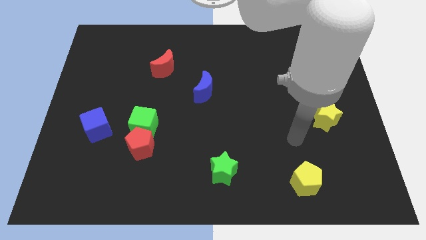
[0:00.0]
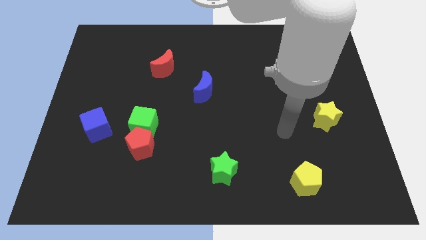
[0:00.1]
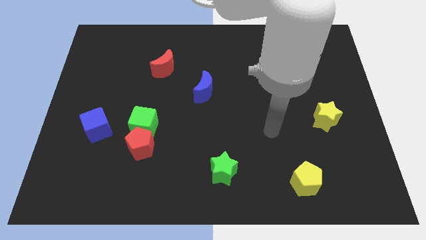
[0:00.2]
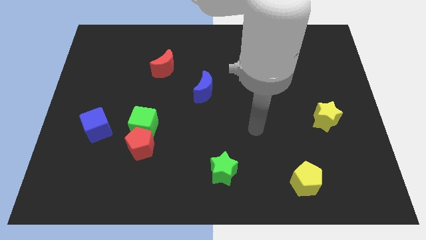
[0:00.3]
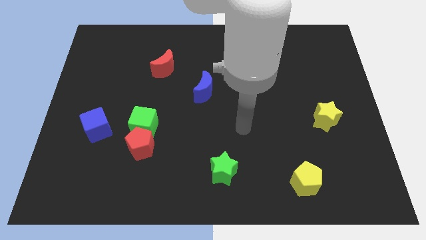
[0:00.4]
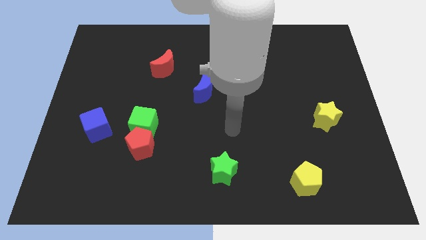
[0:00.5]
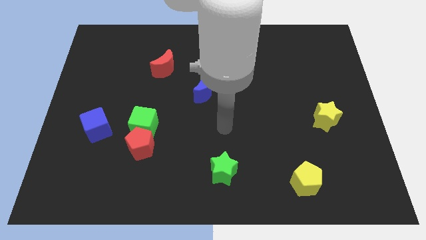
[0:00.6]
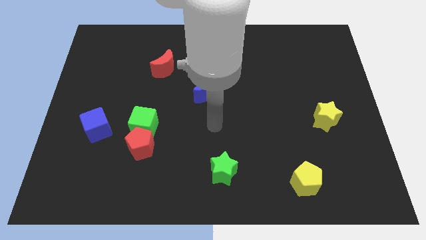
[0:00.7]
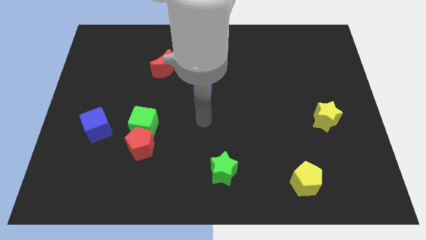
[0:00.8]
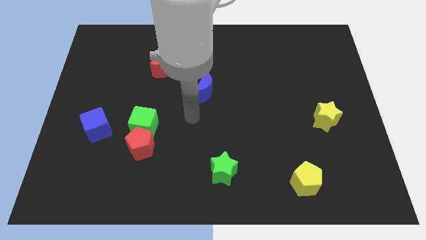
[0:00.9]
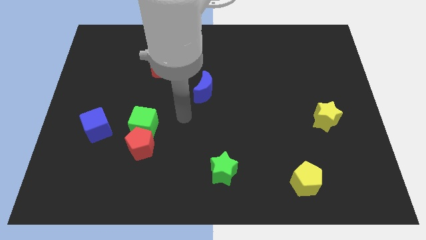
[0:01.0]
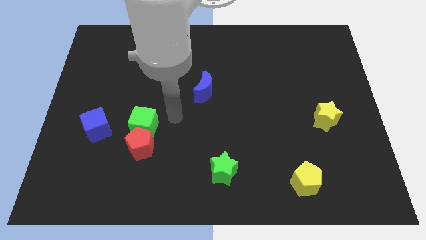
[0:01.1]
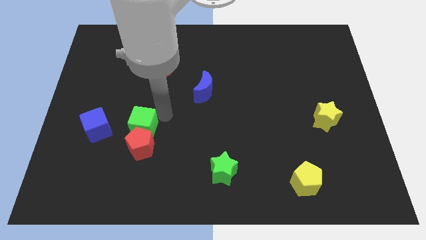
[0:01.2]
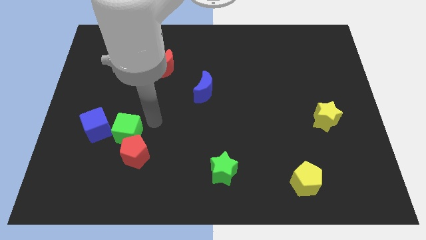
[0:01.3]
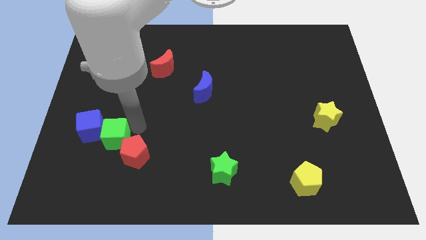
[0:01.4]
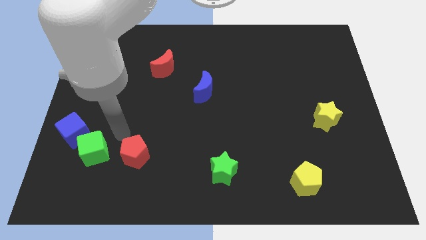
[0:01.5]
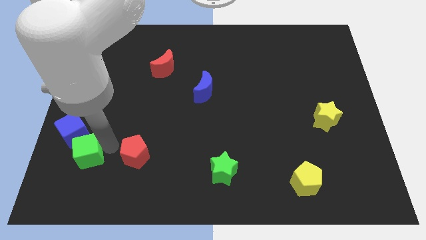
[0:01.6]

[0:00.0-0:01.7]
pull the red pentagon apart from the green cube

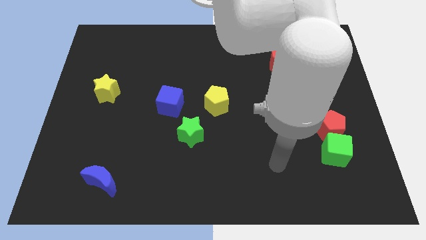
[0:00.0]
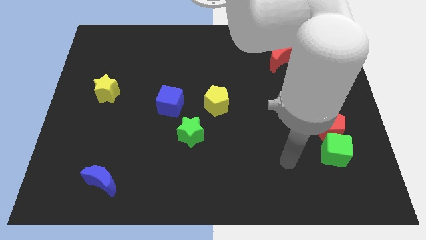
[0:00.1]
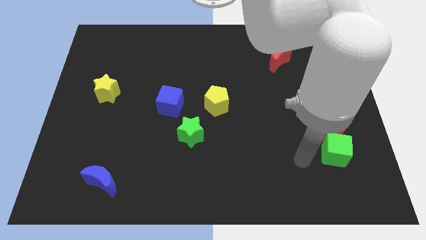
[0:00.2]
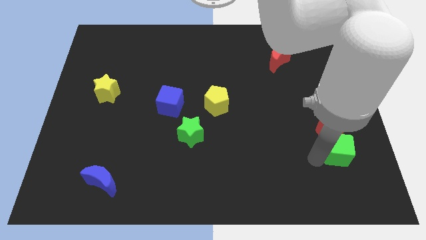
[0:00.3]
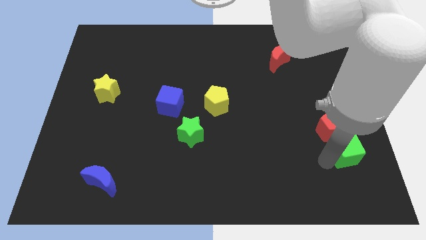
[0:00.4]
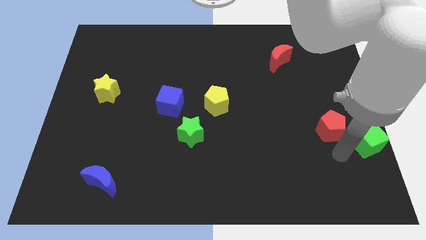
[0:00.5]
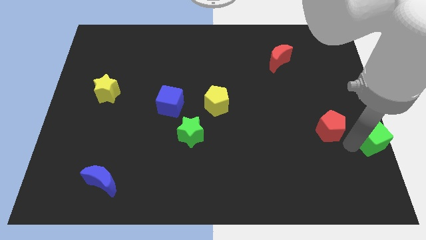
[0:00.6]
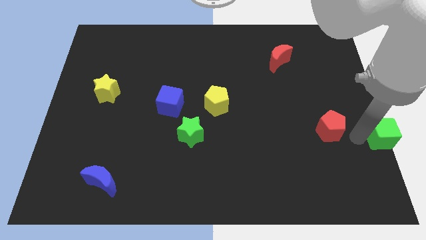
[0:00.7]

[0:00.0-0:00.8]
separate the red pentagon from the green cube

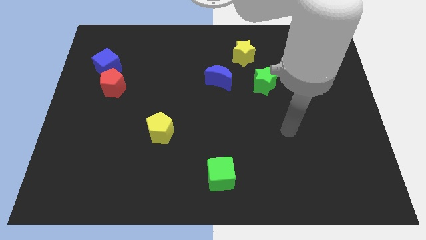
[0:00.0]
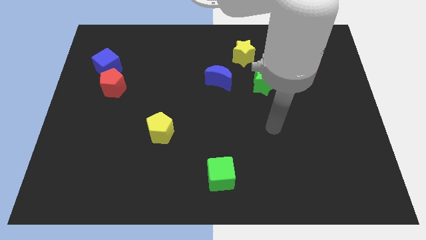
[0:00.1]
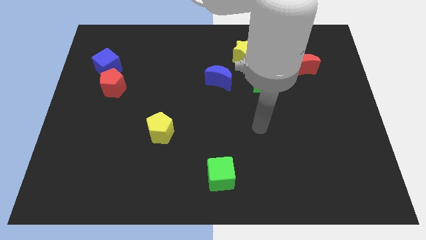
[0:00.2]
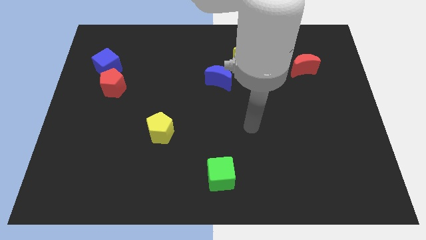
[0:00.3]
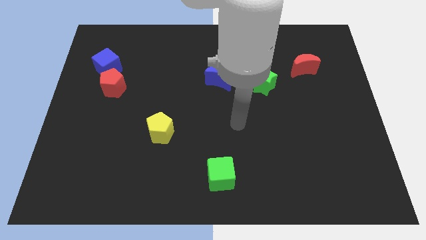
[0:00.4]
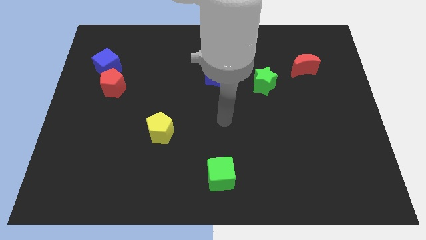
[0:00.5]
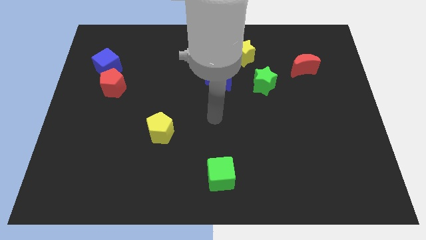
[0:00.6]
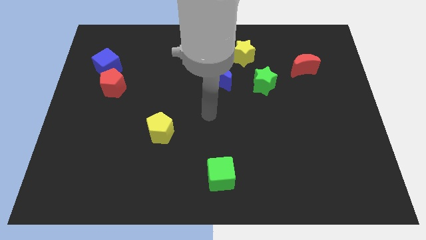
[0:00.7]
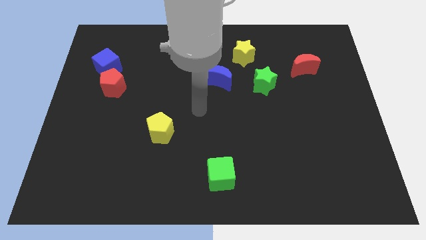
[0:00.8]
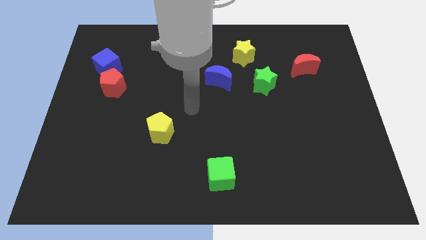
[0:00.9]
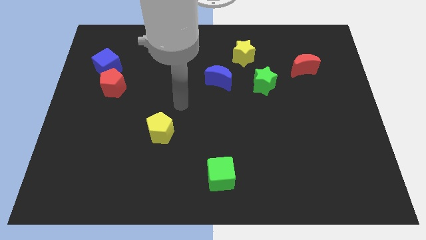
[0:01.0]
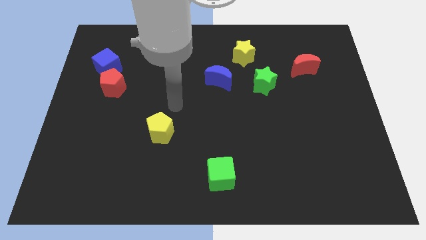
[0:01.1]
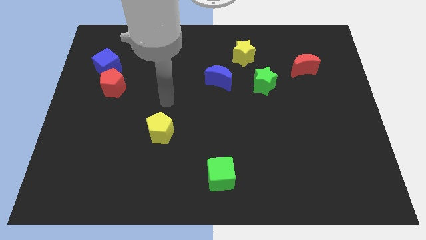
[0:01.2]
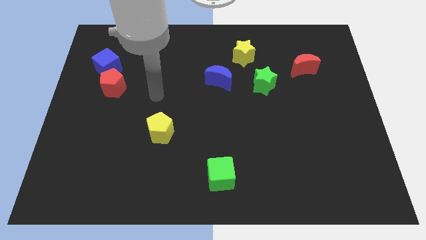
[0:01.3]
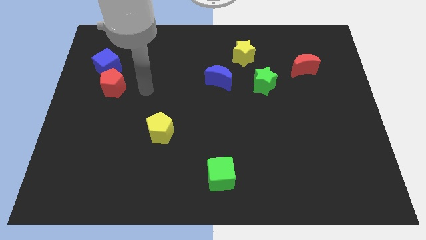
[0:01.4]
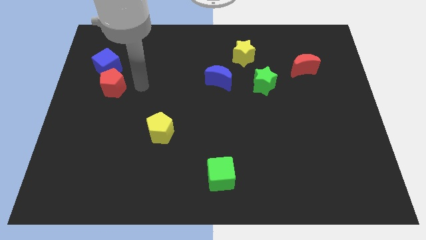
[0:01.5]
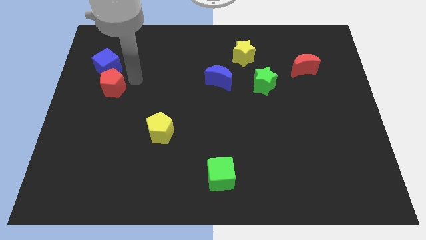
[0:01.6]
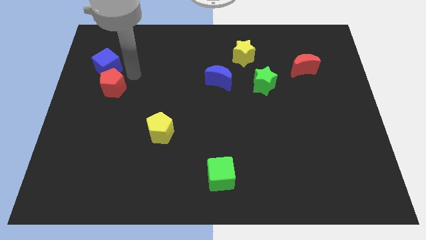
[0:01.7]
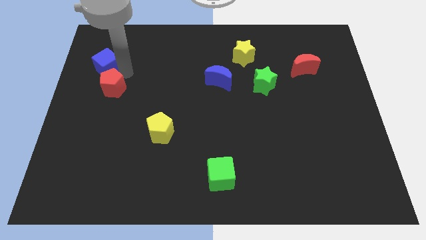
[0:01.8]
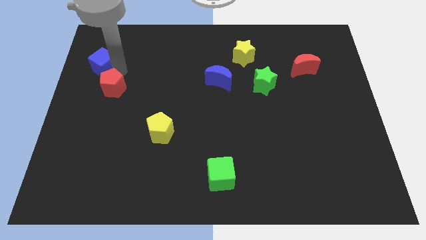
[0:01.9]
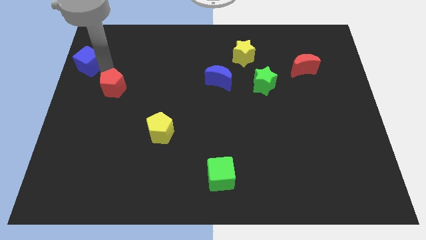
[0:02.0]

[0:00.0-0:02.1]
separate the red pentagon from the blue cube

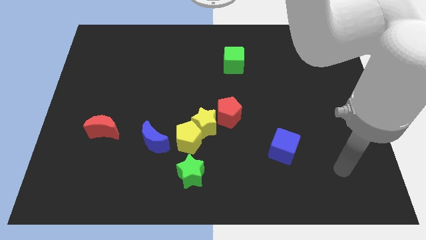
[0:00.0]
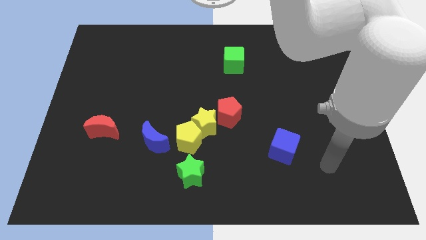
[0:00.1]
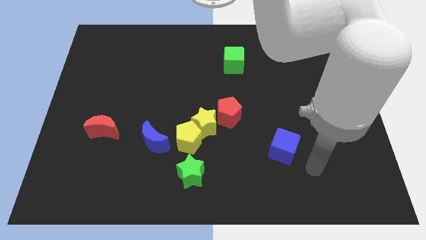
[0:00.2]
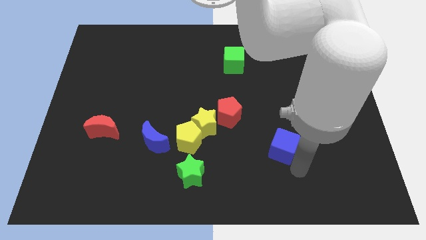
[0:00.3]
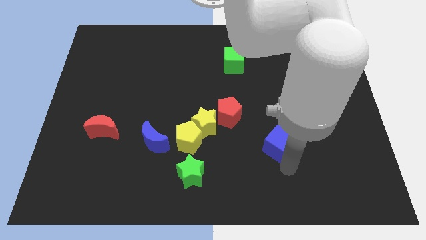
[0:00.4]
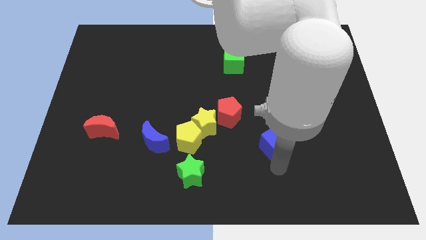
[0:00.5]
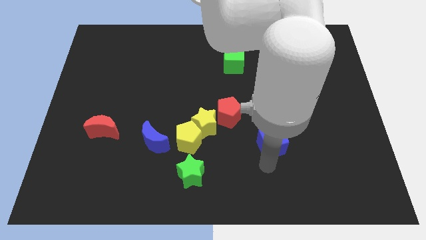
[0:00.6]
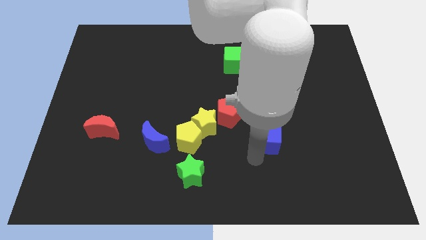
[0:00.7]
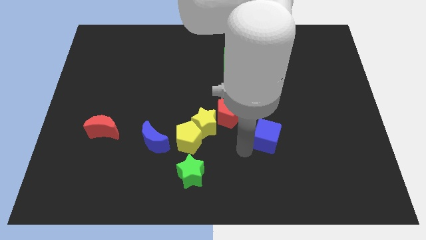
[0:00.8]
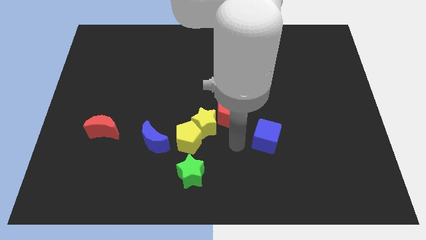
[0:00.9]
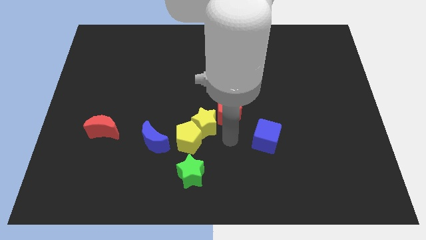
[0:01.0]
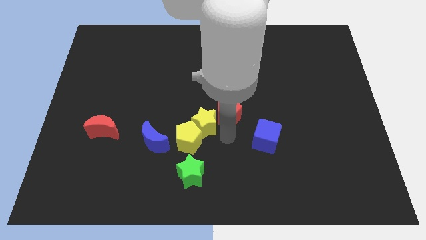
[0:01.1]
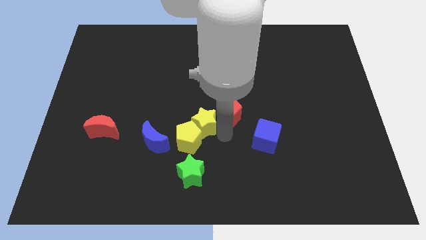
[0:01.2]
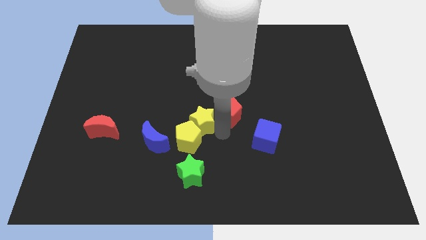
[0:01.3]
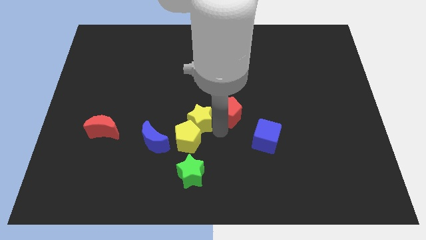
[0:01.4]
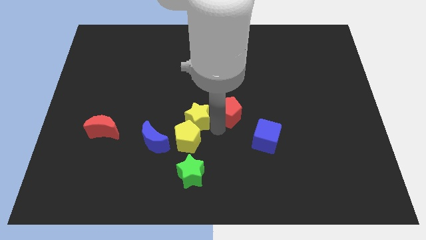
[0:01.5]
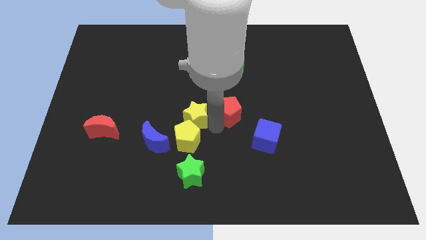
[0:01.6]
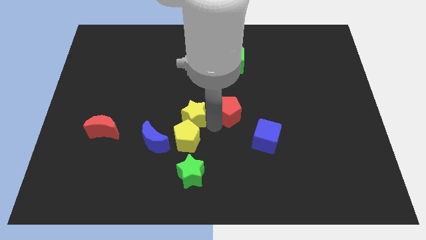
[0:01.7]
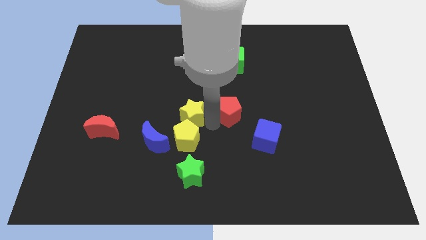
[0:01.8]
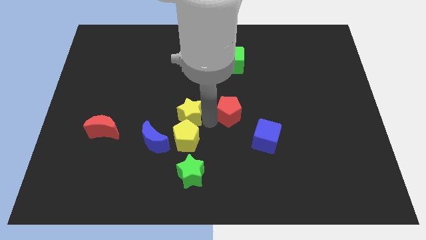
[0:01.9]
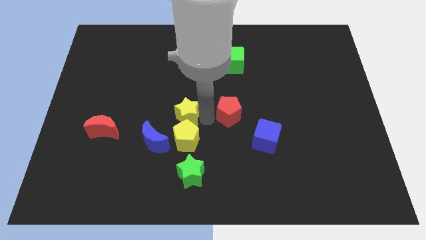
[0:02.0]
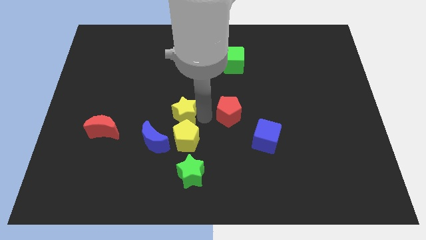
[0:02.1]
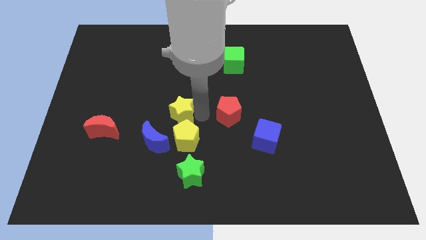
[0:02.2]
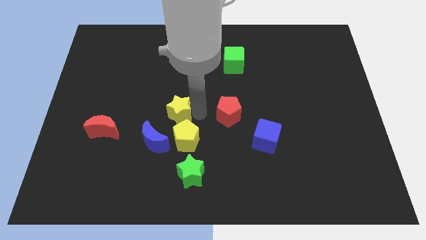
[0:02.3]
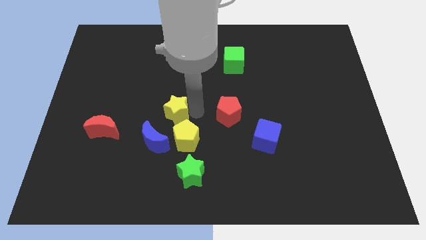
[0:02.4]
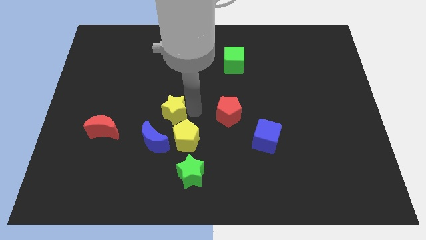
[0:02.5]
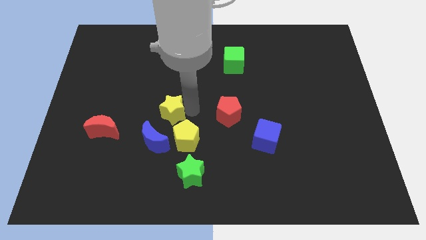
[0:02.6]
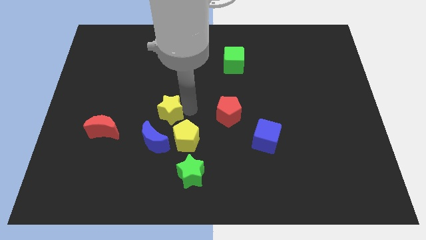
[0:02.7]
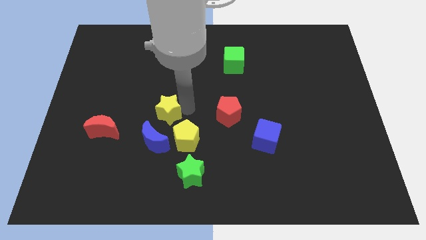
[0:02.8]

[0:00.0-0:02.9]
pull the yellow star apart from the yellow pentagon and red pentagon

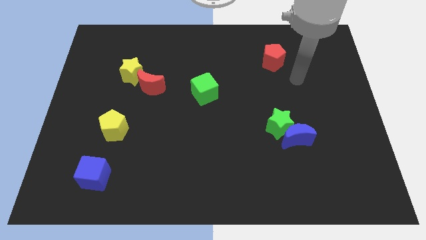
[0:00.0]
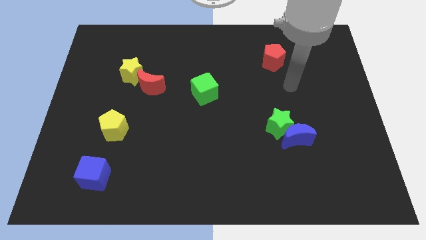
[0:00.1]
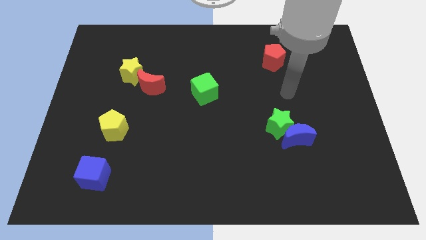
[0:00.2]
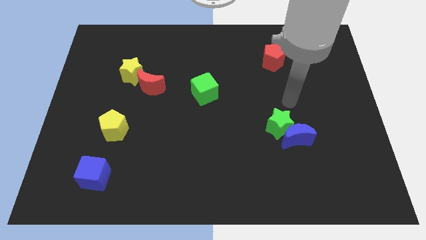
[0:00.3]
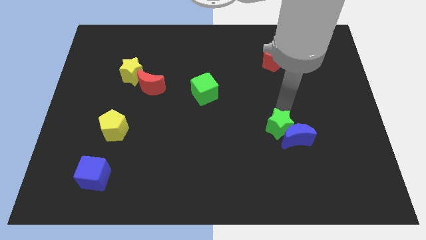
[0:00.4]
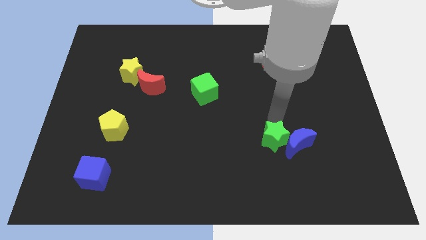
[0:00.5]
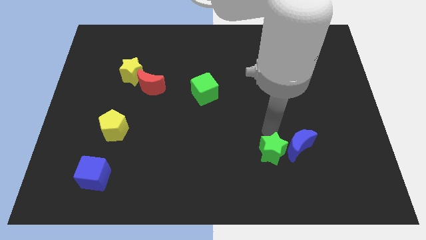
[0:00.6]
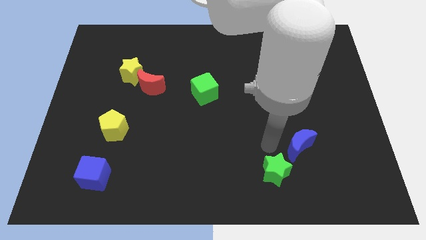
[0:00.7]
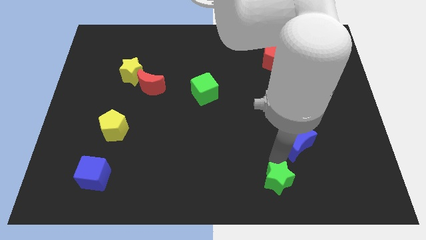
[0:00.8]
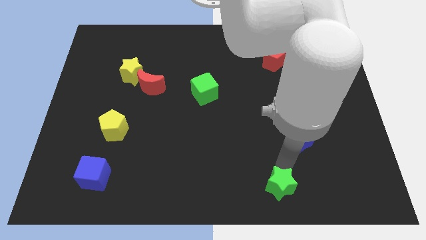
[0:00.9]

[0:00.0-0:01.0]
separate the blue moon from the green star

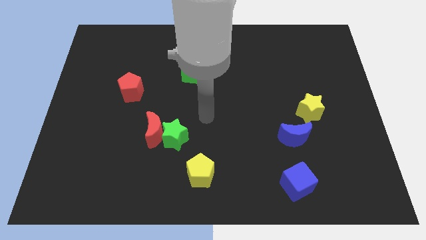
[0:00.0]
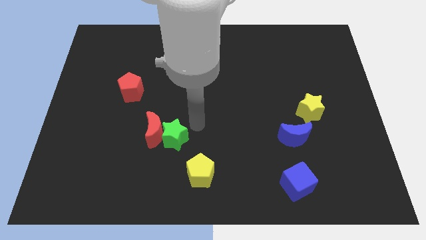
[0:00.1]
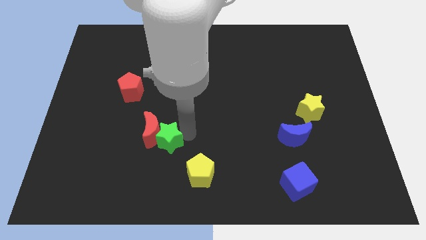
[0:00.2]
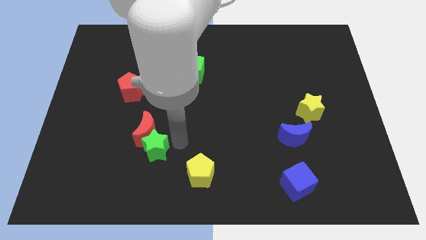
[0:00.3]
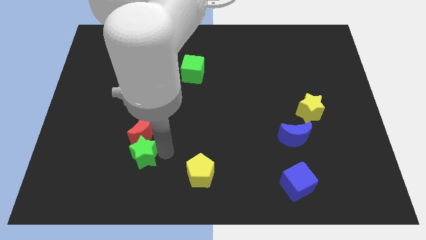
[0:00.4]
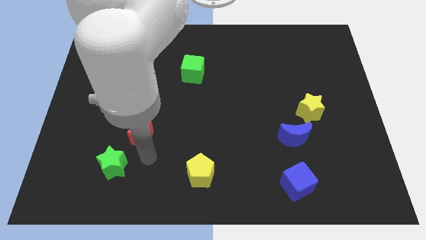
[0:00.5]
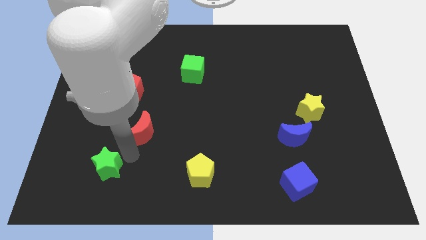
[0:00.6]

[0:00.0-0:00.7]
move the red moon away from the green star

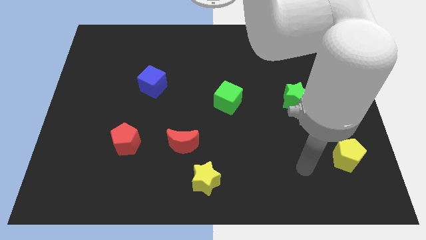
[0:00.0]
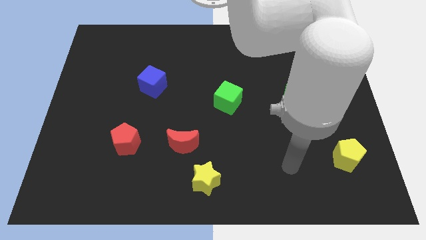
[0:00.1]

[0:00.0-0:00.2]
separate the red moon from the yellow star
